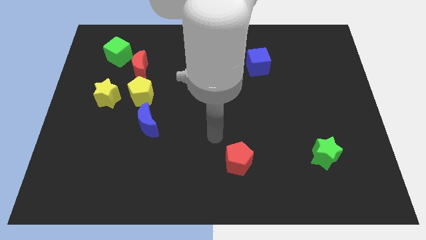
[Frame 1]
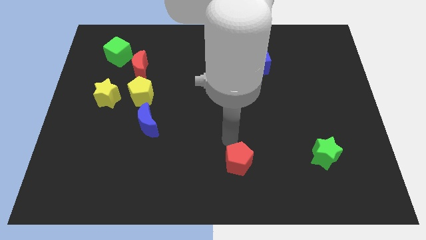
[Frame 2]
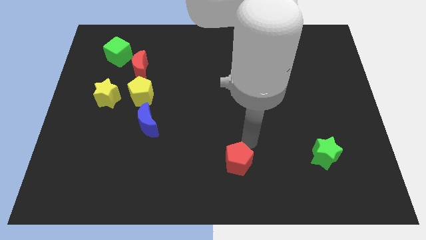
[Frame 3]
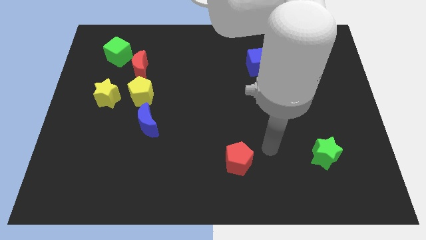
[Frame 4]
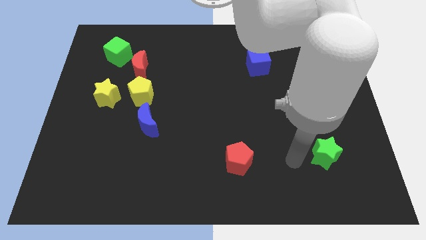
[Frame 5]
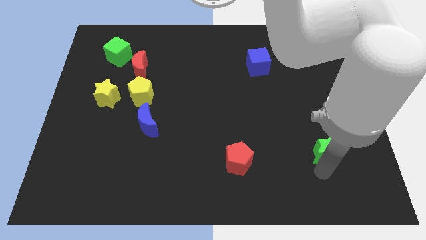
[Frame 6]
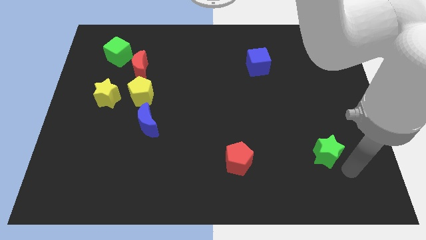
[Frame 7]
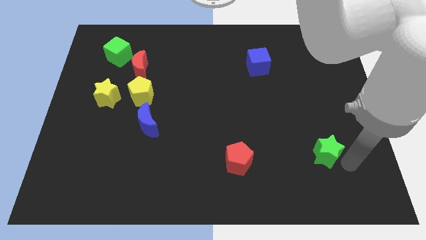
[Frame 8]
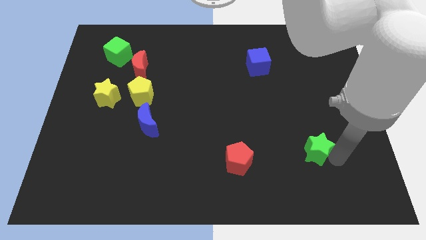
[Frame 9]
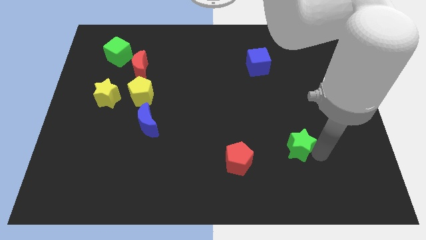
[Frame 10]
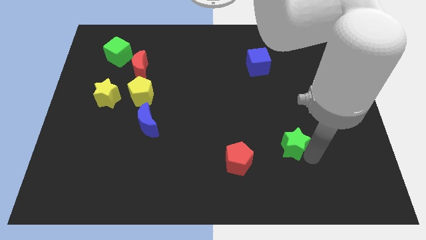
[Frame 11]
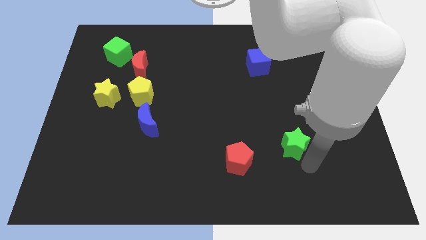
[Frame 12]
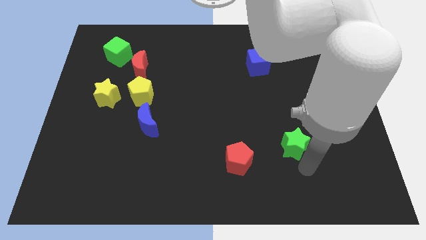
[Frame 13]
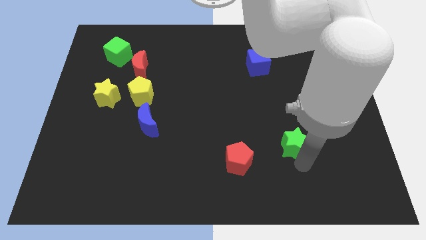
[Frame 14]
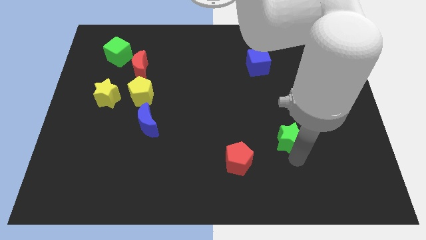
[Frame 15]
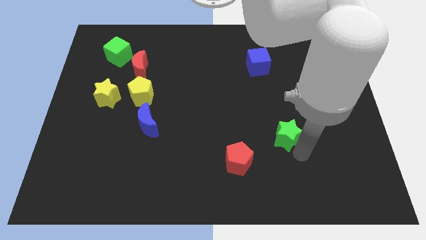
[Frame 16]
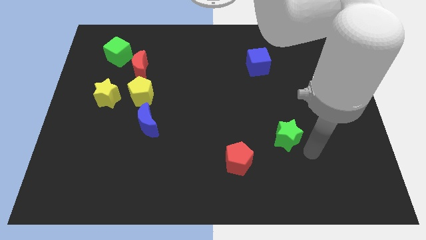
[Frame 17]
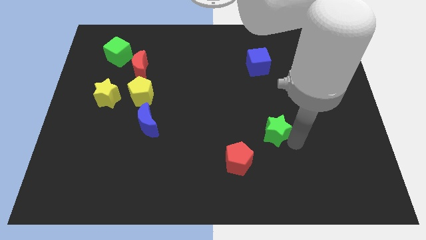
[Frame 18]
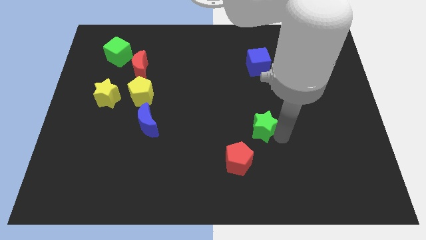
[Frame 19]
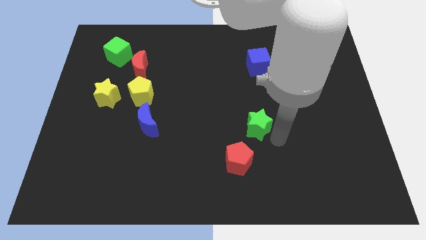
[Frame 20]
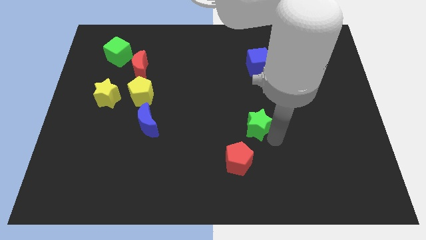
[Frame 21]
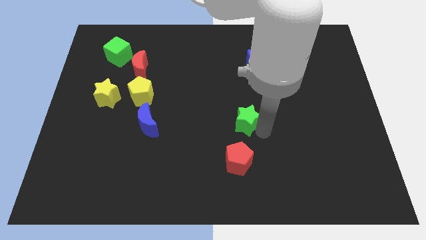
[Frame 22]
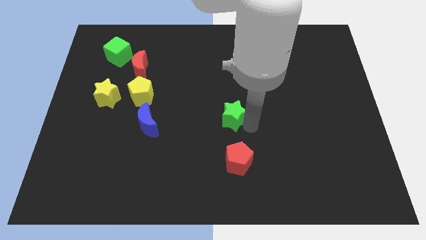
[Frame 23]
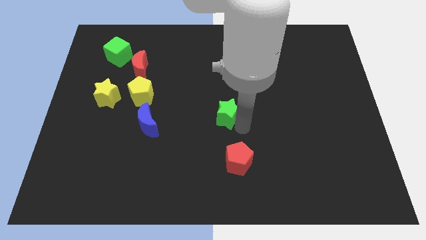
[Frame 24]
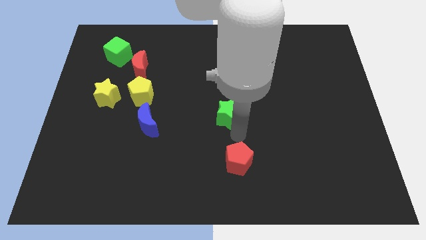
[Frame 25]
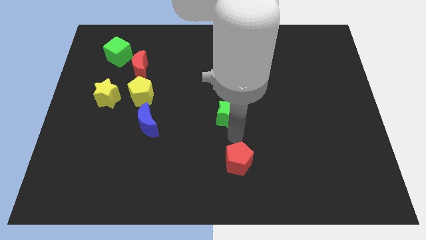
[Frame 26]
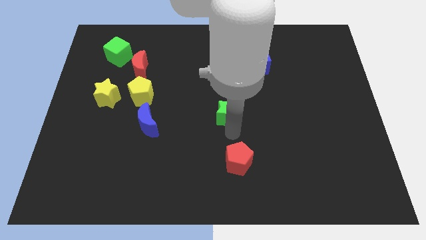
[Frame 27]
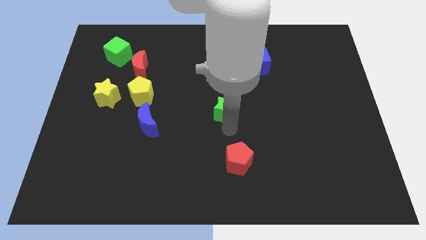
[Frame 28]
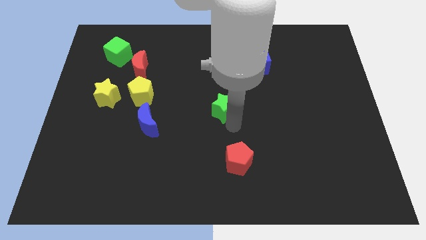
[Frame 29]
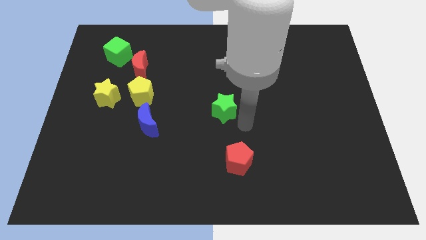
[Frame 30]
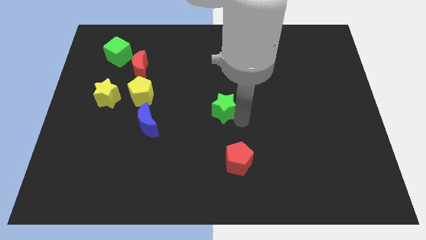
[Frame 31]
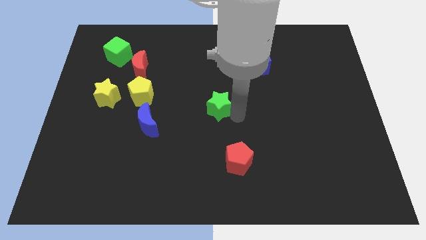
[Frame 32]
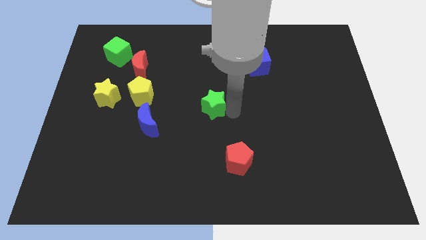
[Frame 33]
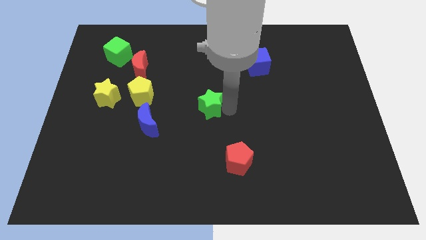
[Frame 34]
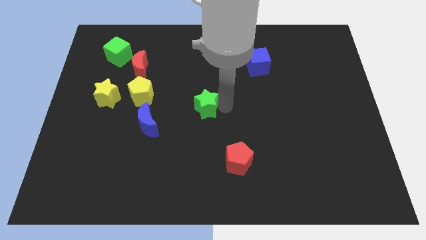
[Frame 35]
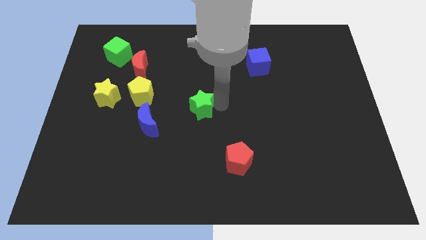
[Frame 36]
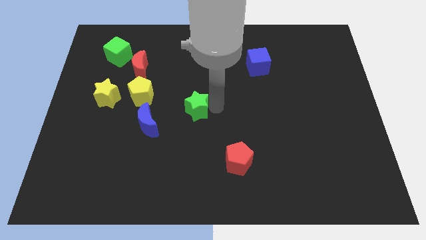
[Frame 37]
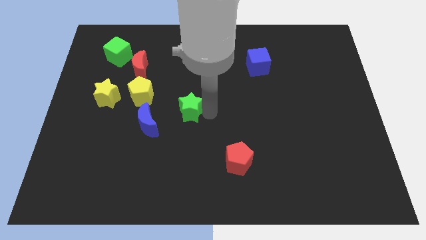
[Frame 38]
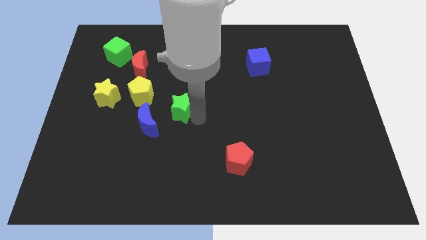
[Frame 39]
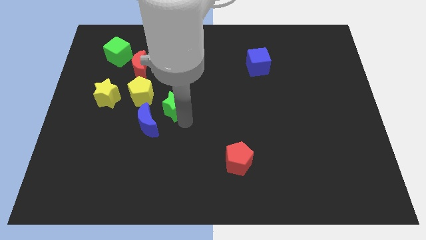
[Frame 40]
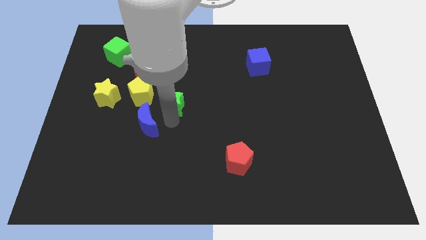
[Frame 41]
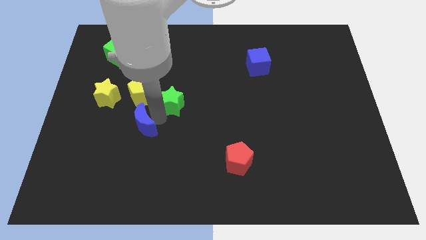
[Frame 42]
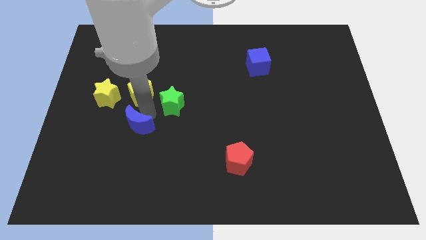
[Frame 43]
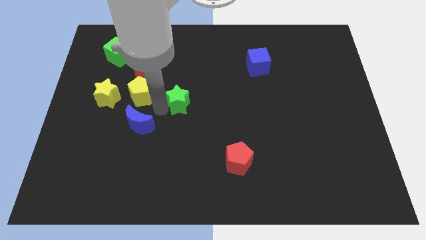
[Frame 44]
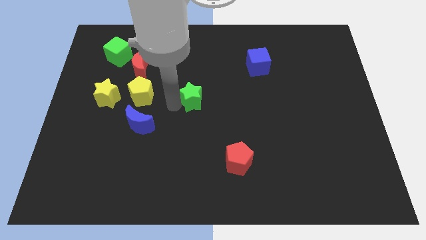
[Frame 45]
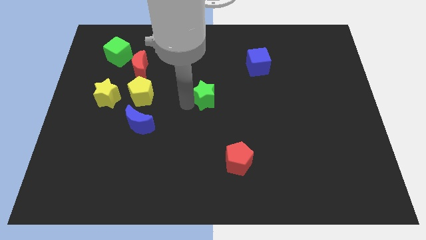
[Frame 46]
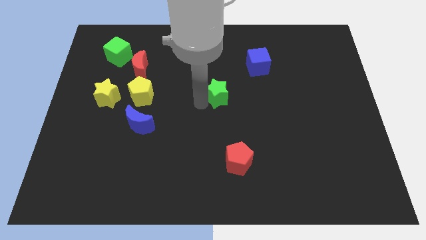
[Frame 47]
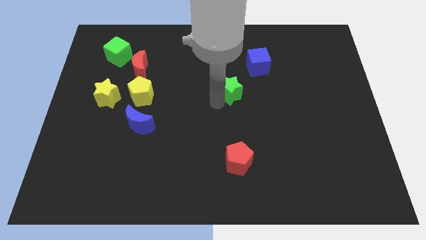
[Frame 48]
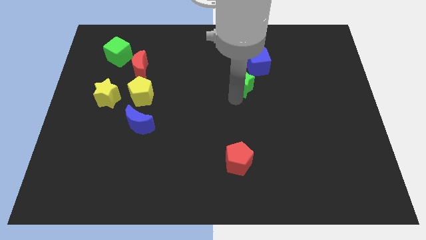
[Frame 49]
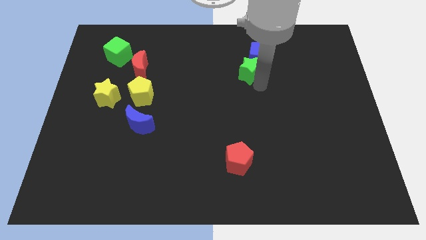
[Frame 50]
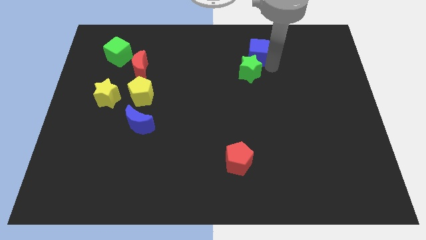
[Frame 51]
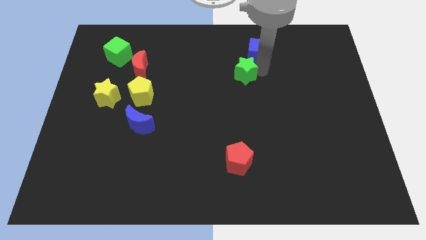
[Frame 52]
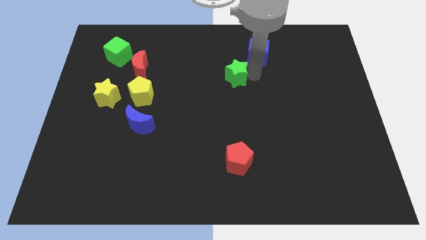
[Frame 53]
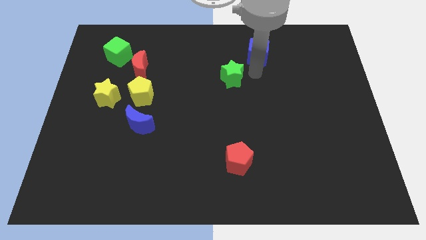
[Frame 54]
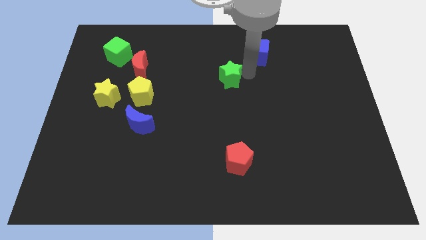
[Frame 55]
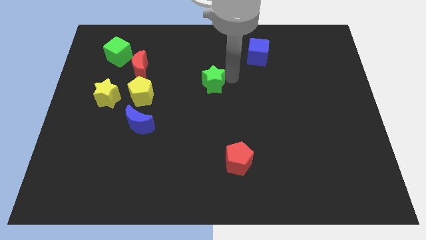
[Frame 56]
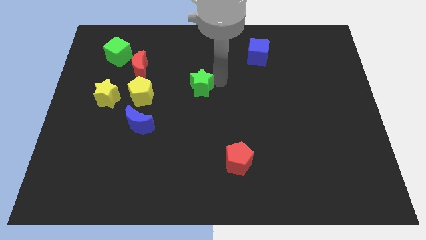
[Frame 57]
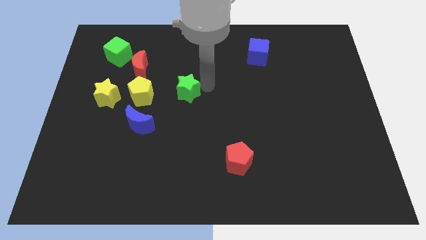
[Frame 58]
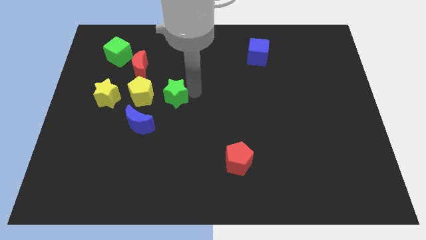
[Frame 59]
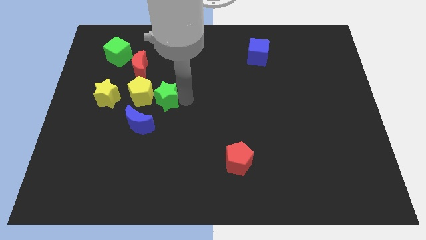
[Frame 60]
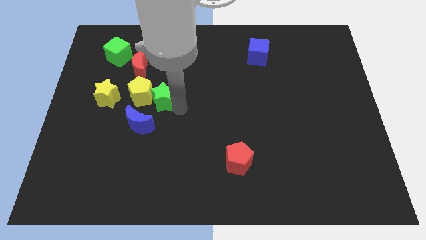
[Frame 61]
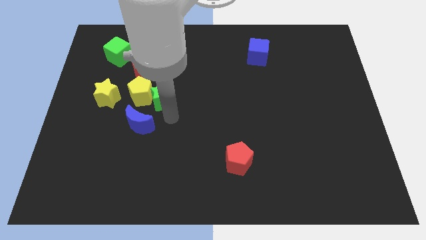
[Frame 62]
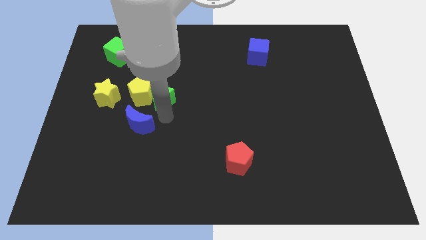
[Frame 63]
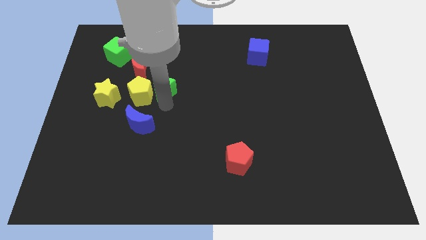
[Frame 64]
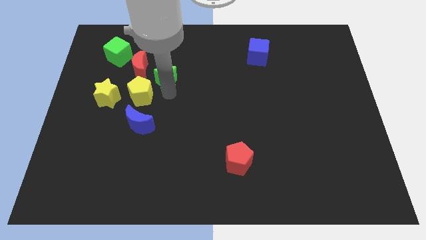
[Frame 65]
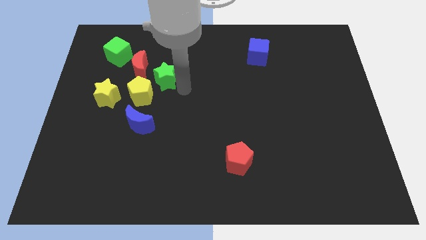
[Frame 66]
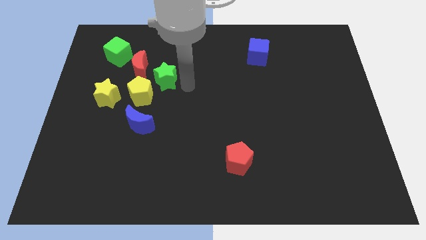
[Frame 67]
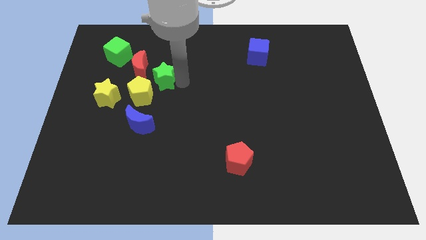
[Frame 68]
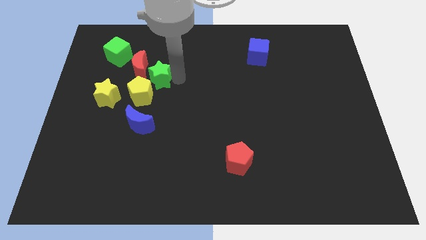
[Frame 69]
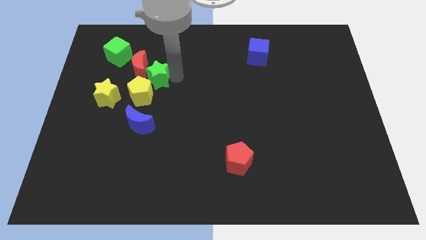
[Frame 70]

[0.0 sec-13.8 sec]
push the green star to the red moon
